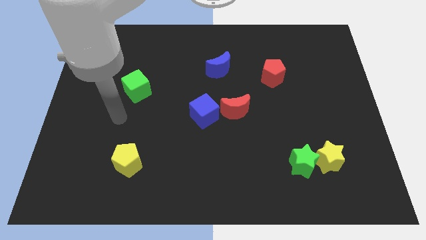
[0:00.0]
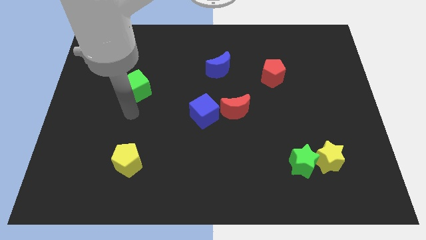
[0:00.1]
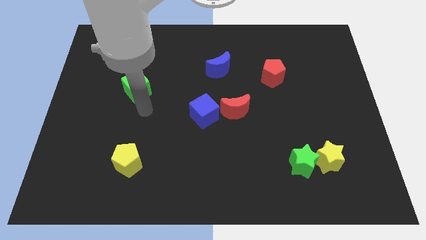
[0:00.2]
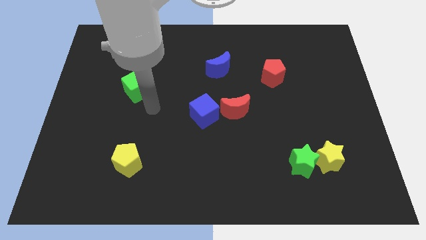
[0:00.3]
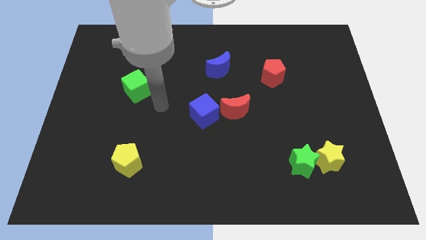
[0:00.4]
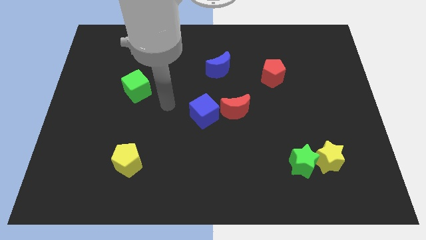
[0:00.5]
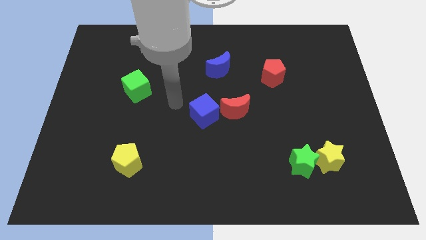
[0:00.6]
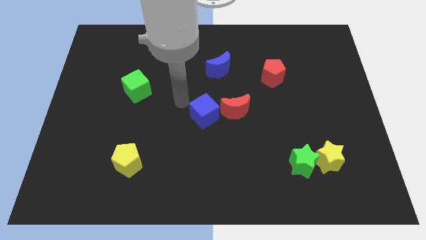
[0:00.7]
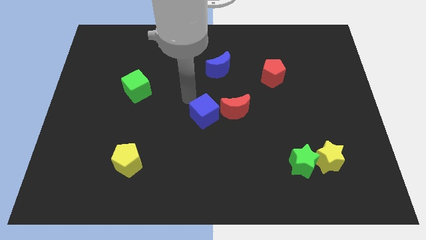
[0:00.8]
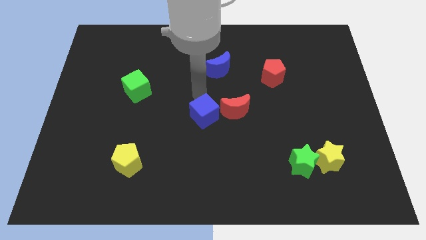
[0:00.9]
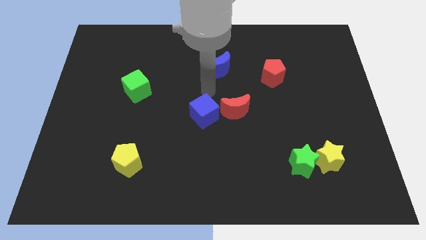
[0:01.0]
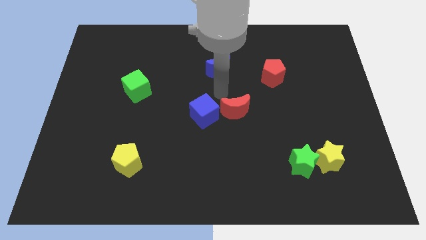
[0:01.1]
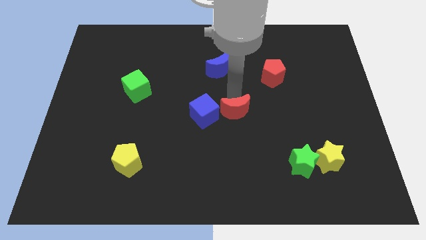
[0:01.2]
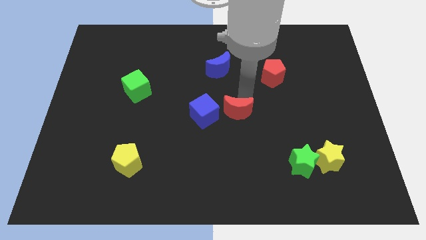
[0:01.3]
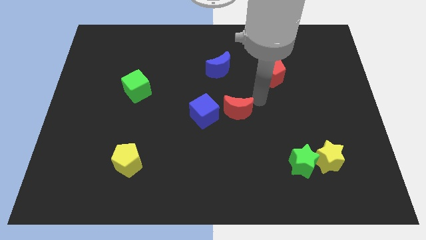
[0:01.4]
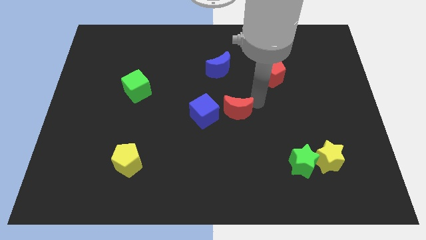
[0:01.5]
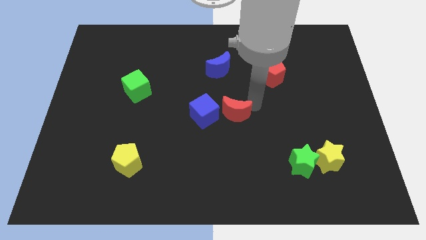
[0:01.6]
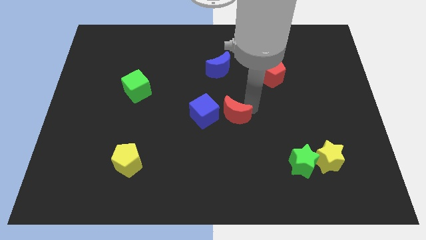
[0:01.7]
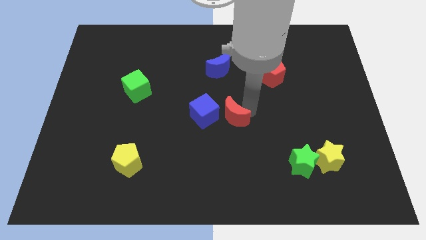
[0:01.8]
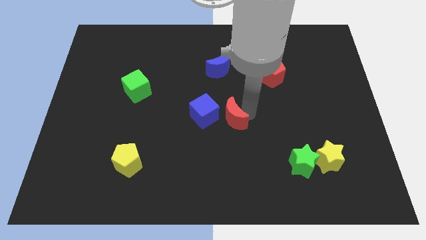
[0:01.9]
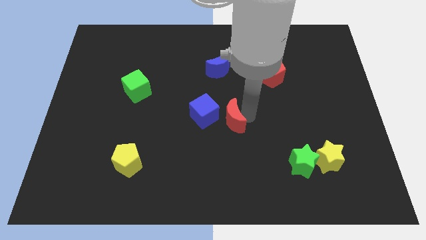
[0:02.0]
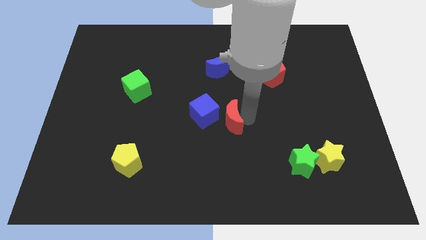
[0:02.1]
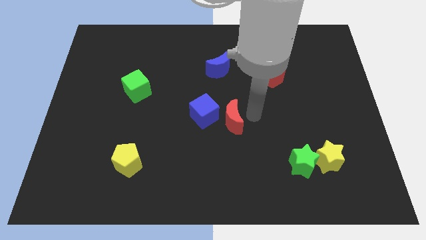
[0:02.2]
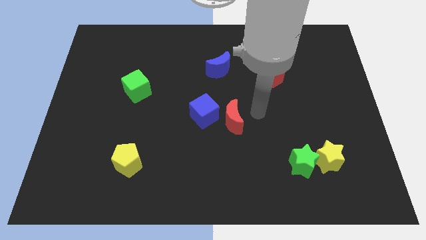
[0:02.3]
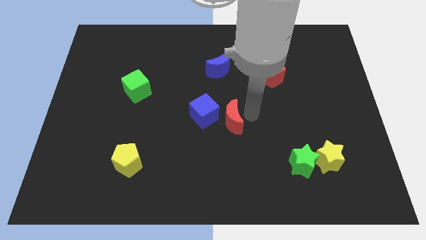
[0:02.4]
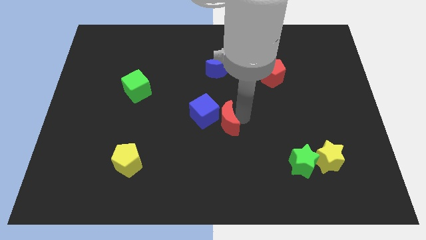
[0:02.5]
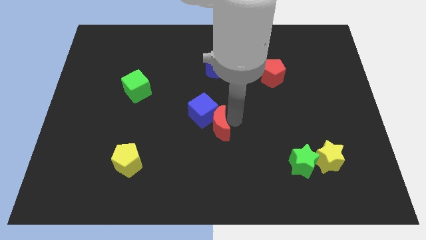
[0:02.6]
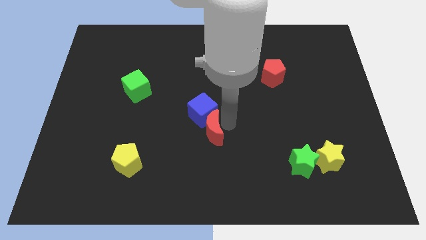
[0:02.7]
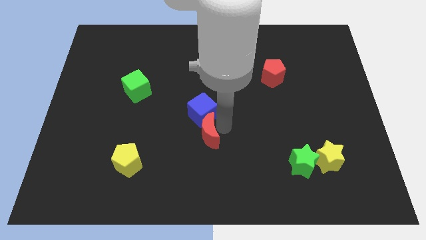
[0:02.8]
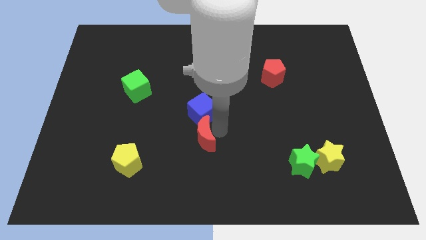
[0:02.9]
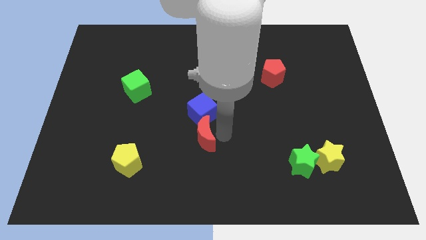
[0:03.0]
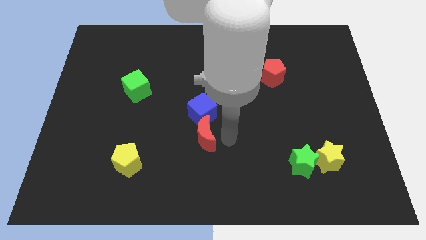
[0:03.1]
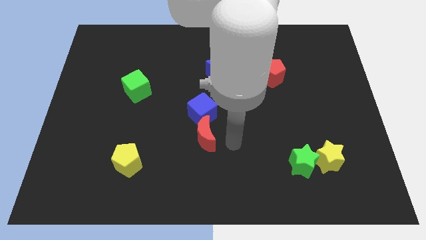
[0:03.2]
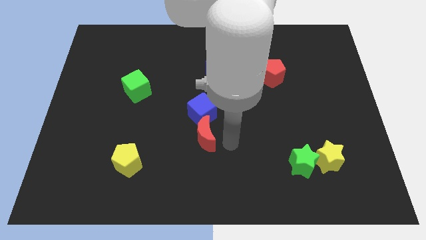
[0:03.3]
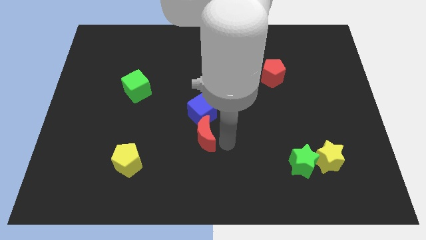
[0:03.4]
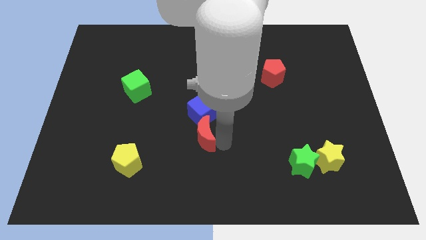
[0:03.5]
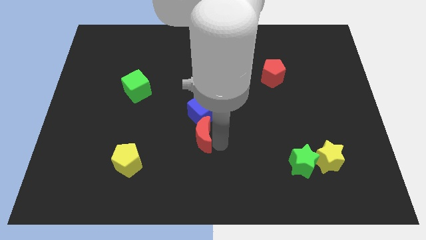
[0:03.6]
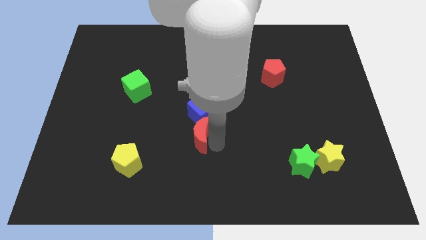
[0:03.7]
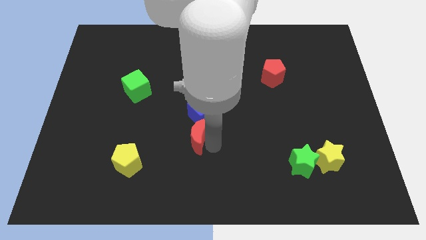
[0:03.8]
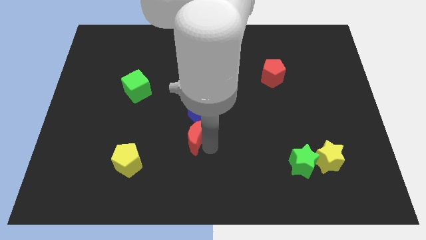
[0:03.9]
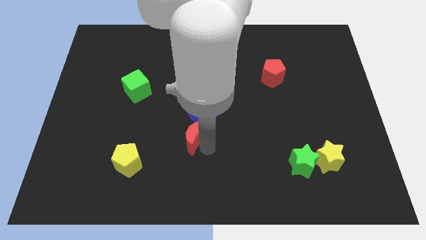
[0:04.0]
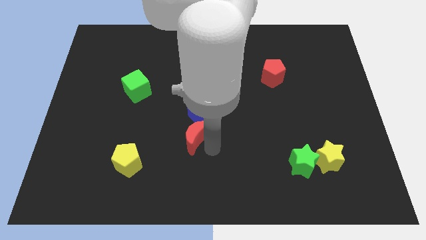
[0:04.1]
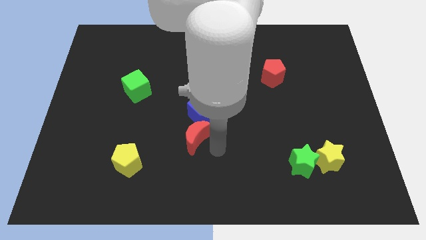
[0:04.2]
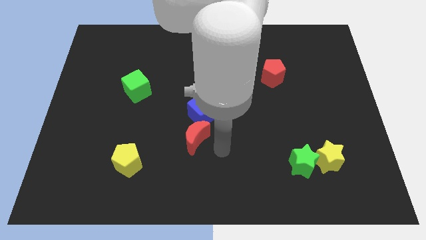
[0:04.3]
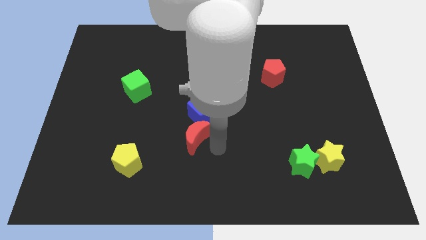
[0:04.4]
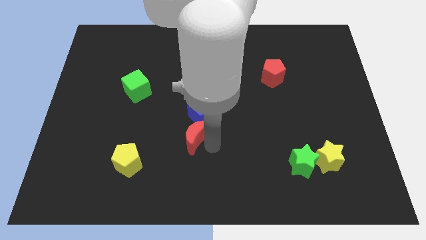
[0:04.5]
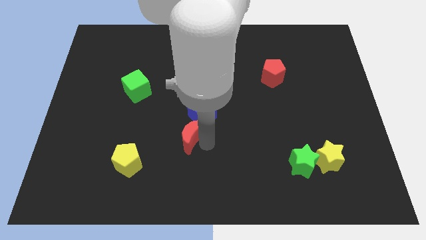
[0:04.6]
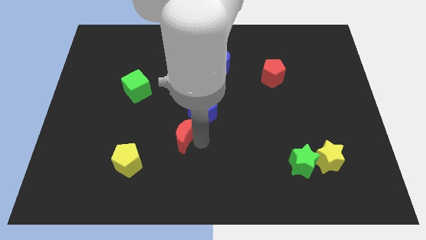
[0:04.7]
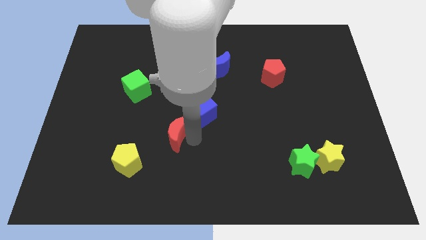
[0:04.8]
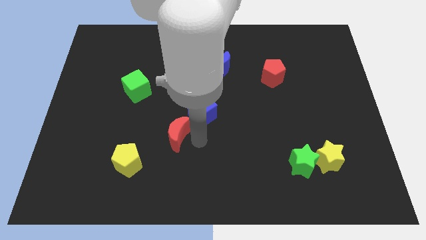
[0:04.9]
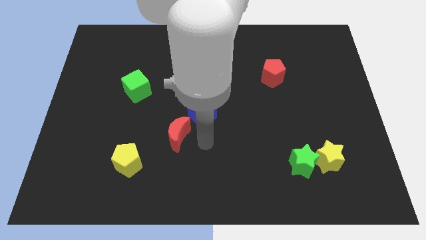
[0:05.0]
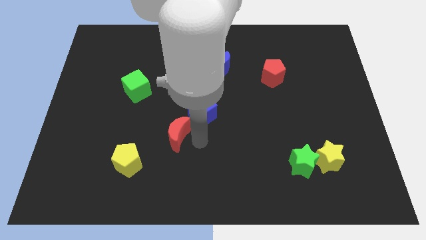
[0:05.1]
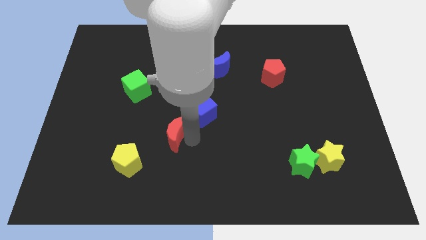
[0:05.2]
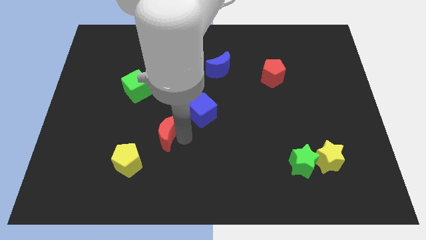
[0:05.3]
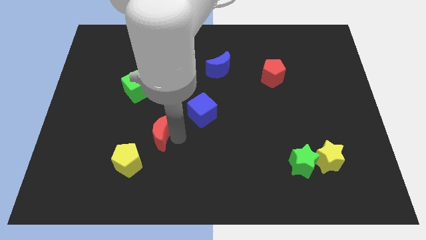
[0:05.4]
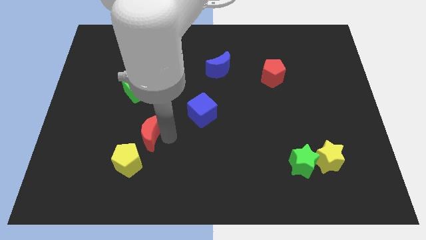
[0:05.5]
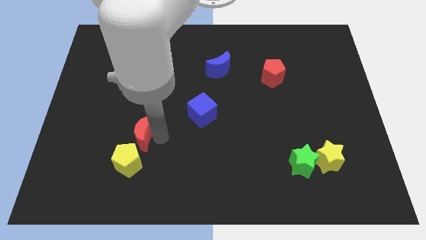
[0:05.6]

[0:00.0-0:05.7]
put the red moon below the green cube

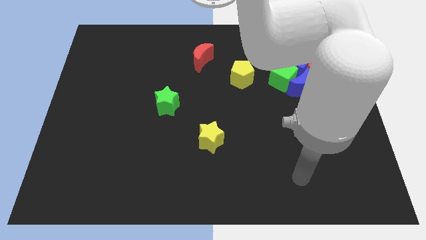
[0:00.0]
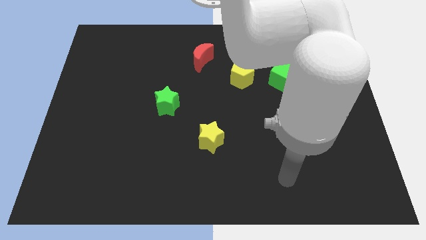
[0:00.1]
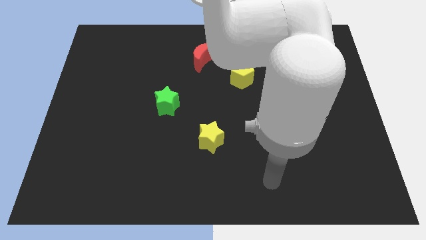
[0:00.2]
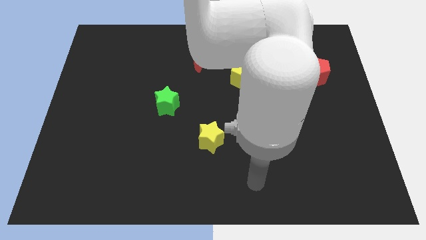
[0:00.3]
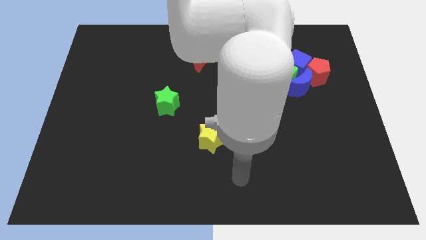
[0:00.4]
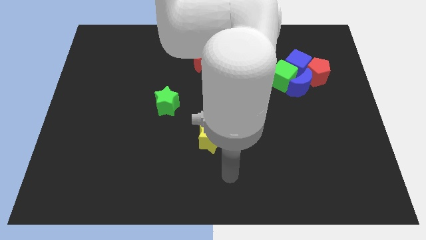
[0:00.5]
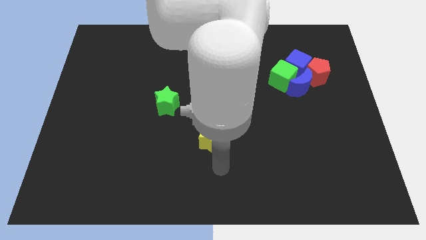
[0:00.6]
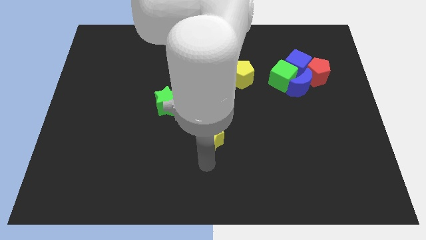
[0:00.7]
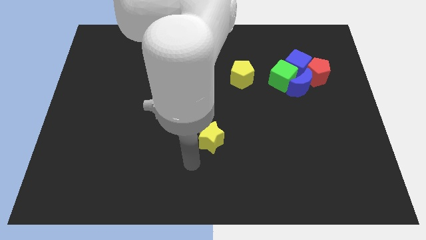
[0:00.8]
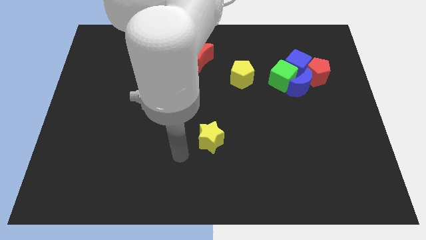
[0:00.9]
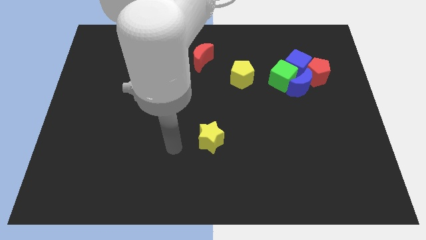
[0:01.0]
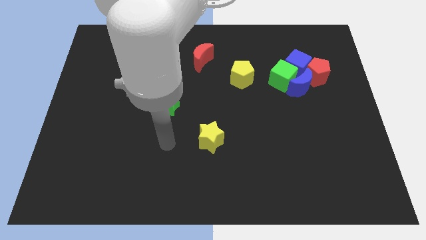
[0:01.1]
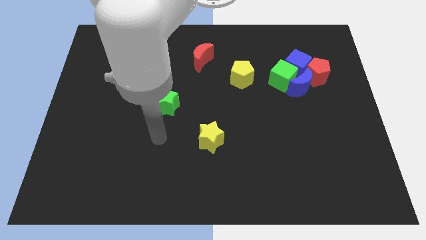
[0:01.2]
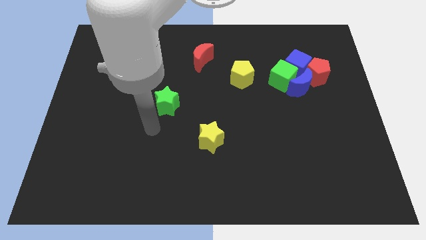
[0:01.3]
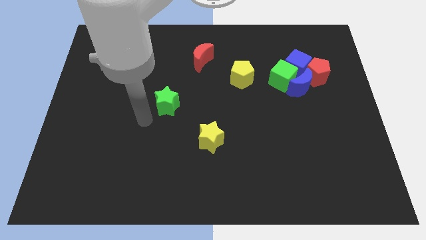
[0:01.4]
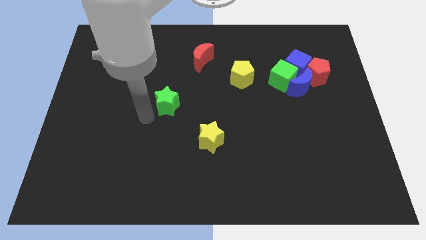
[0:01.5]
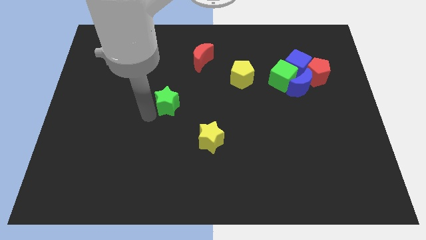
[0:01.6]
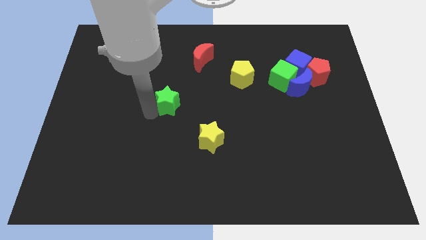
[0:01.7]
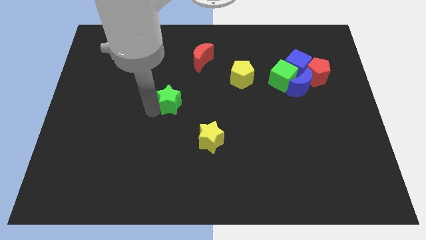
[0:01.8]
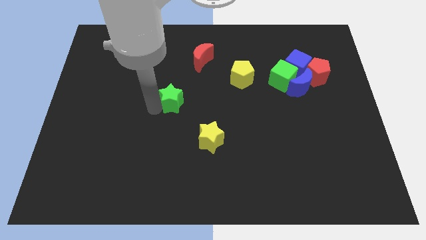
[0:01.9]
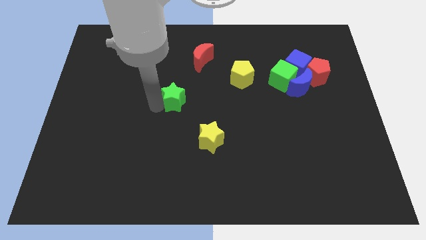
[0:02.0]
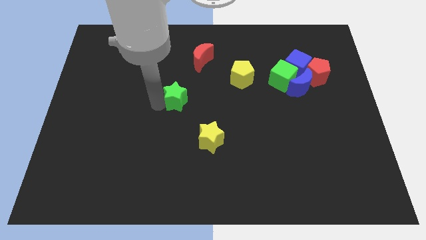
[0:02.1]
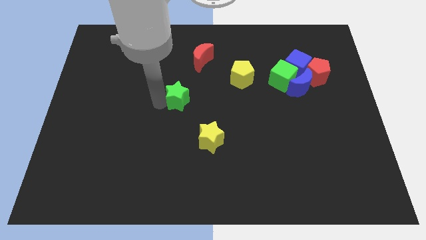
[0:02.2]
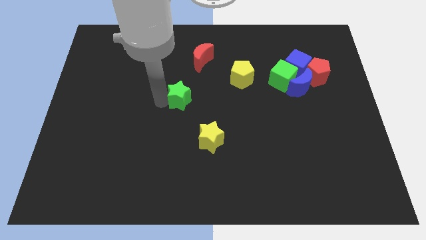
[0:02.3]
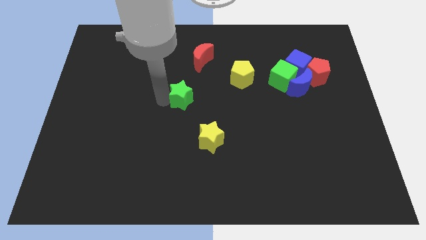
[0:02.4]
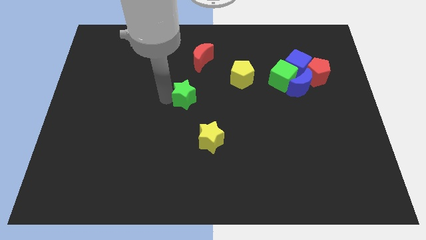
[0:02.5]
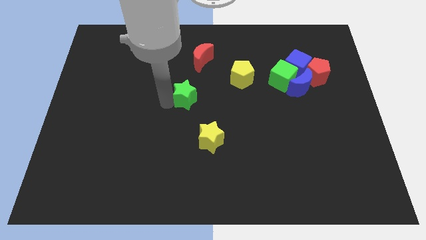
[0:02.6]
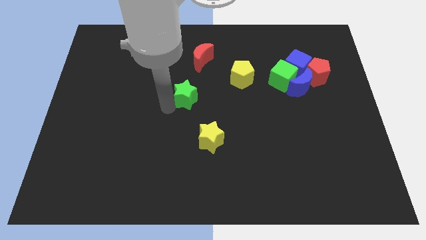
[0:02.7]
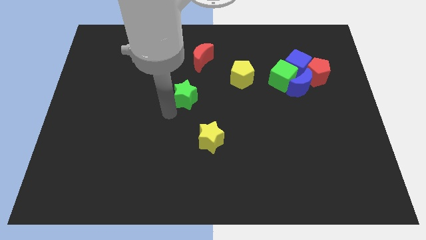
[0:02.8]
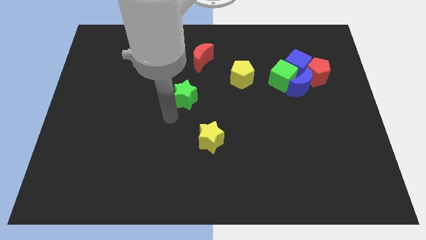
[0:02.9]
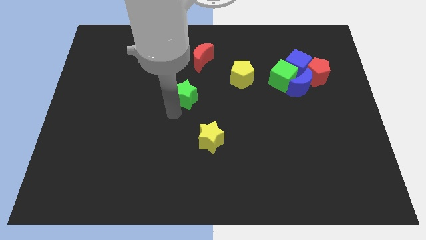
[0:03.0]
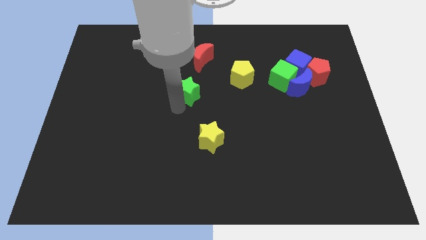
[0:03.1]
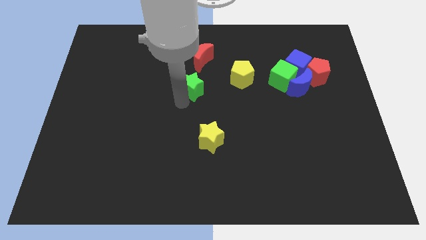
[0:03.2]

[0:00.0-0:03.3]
push the green star left of the yellow pentagon
